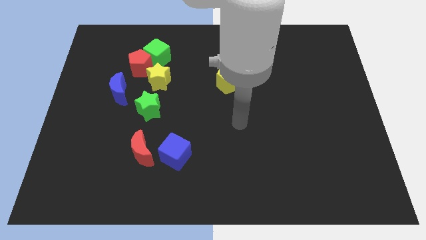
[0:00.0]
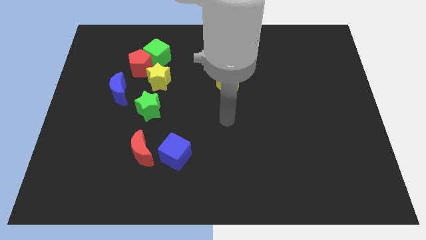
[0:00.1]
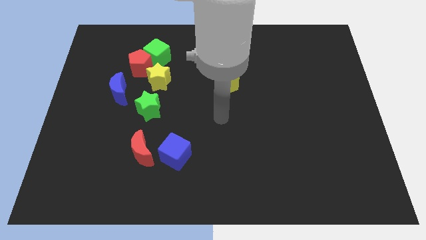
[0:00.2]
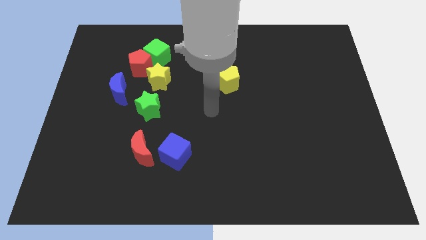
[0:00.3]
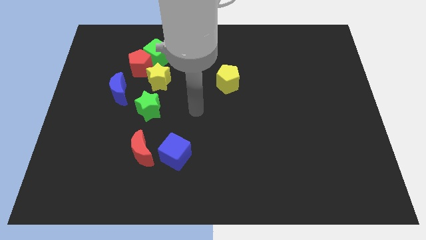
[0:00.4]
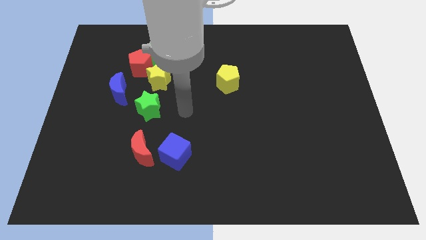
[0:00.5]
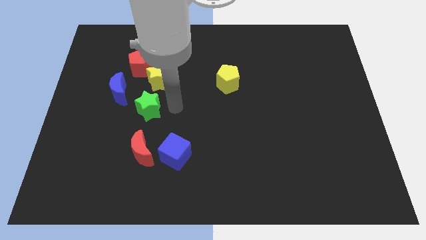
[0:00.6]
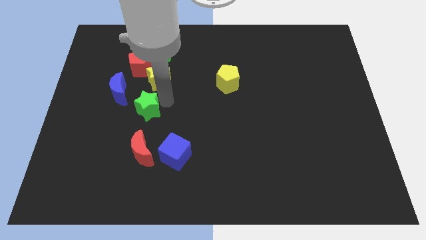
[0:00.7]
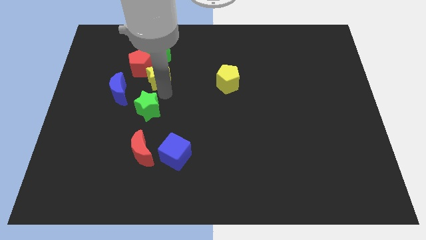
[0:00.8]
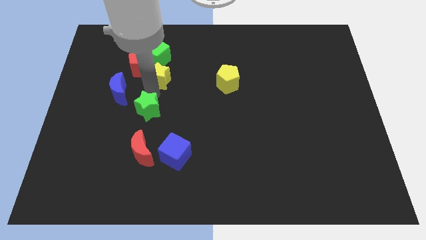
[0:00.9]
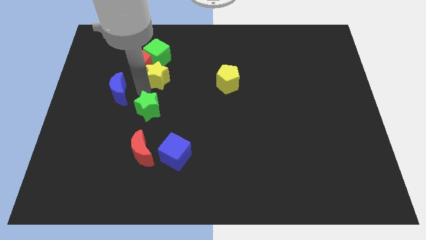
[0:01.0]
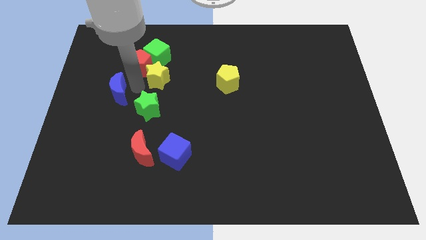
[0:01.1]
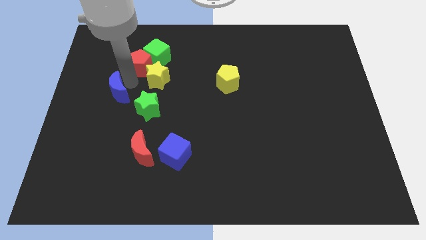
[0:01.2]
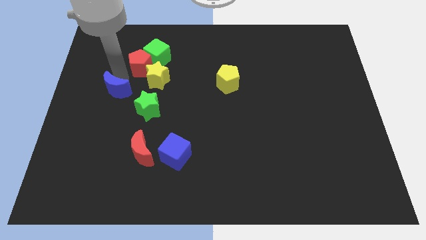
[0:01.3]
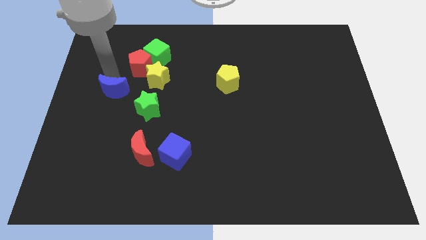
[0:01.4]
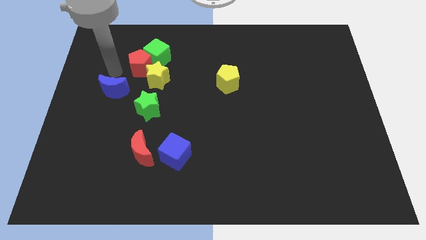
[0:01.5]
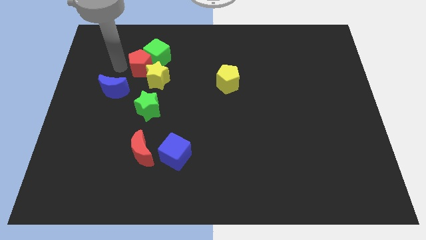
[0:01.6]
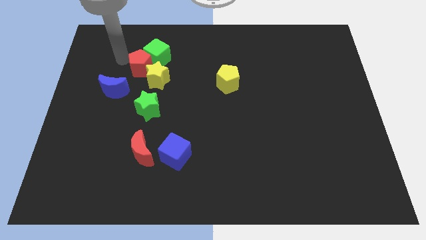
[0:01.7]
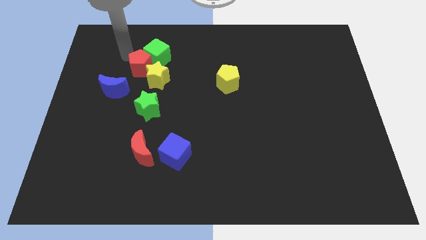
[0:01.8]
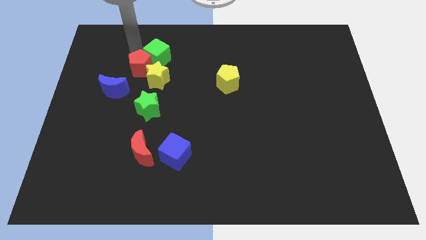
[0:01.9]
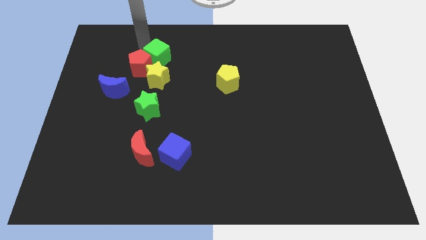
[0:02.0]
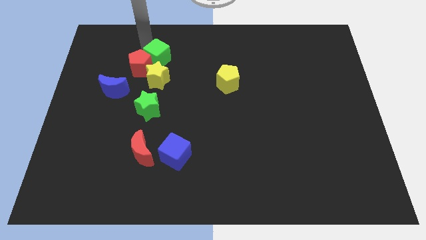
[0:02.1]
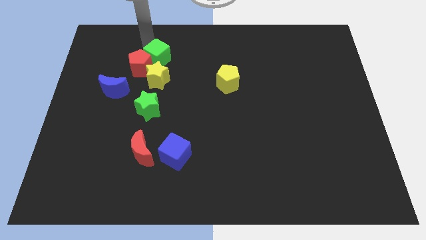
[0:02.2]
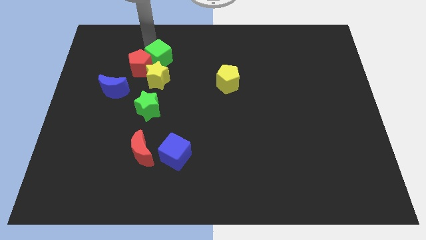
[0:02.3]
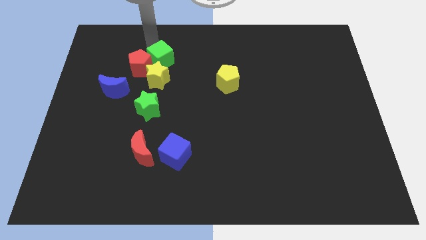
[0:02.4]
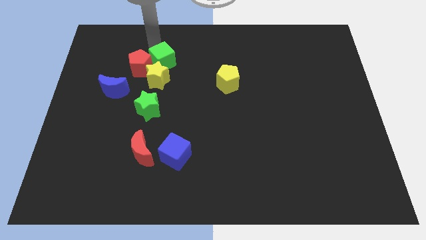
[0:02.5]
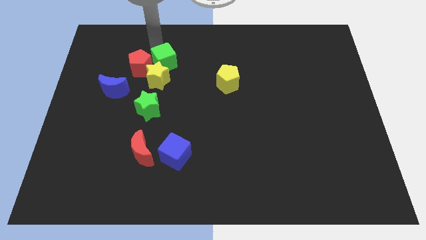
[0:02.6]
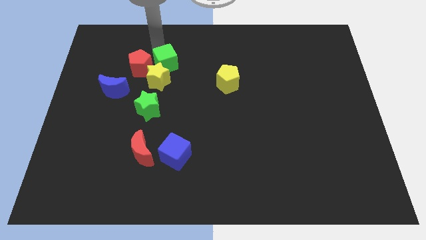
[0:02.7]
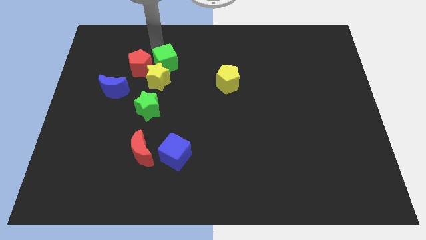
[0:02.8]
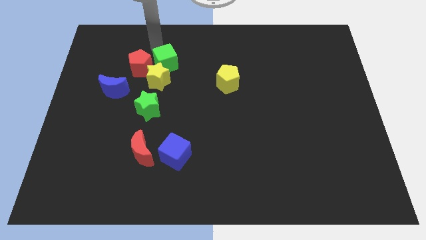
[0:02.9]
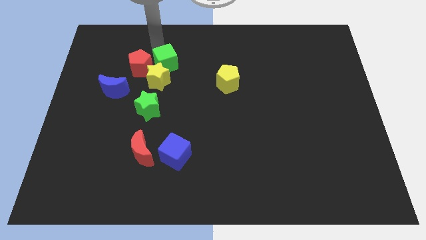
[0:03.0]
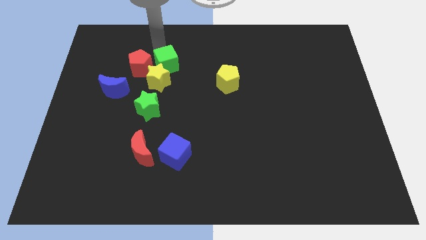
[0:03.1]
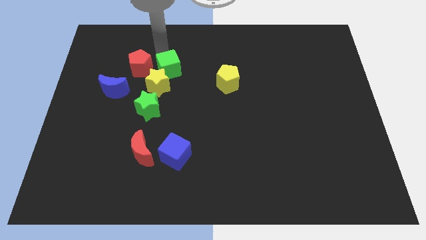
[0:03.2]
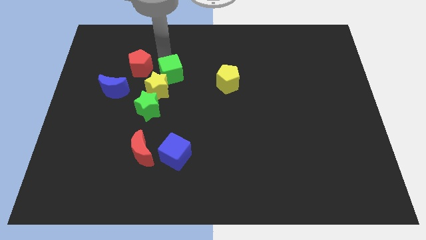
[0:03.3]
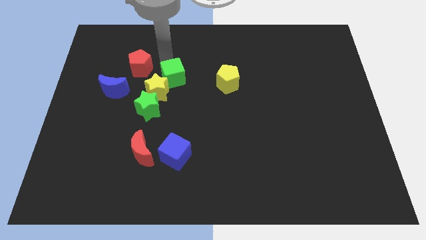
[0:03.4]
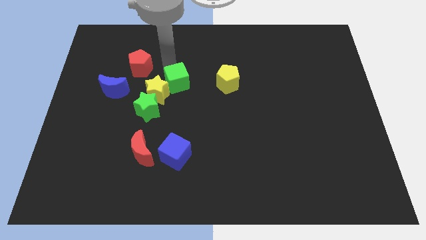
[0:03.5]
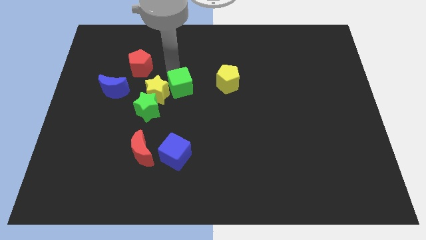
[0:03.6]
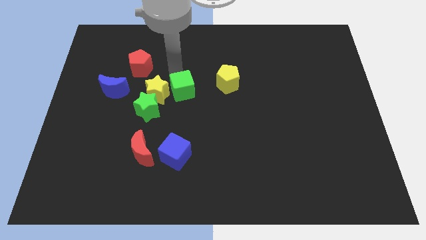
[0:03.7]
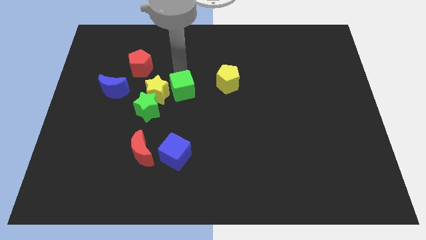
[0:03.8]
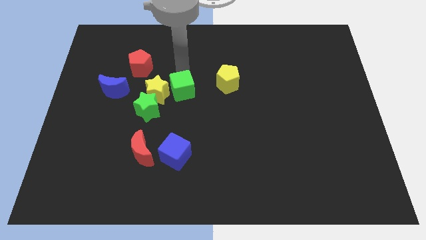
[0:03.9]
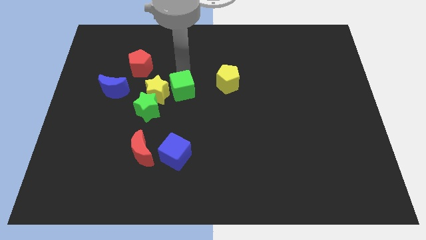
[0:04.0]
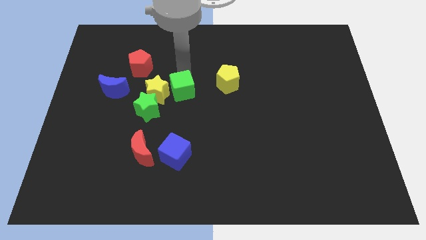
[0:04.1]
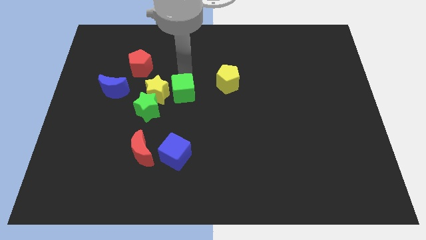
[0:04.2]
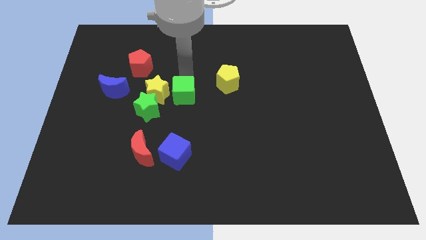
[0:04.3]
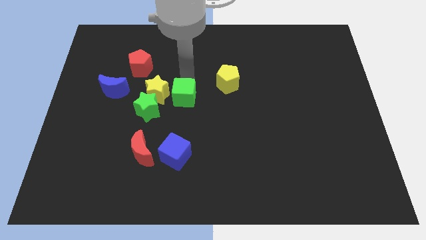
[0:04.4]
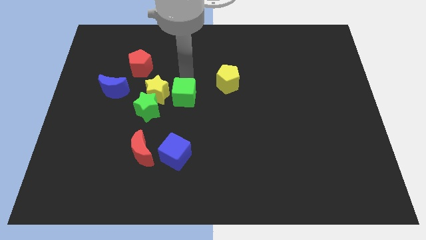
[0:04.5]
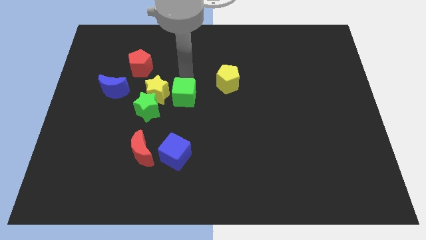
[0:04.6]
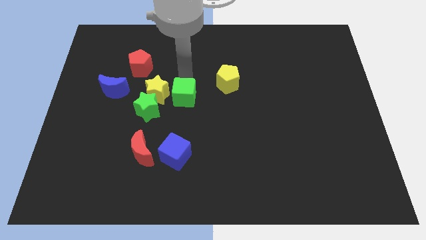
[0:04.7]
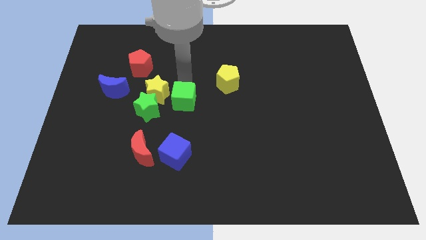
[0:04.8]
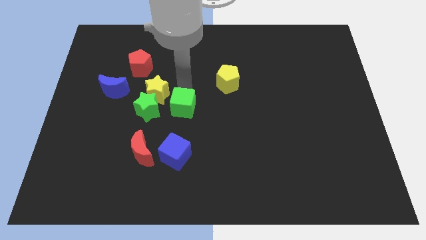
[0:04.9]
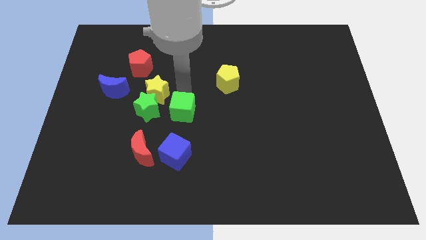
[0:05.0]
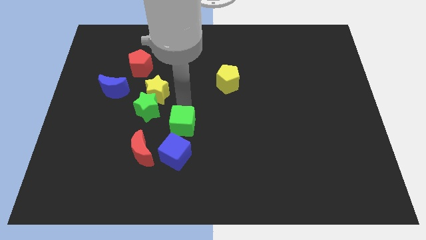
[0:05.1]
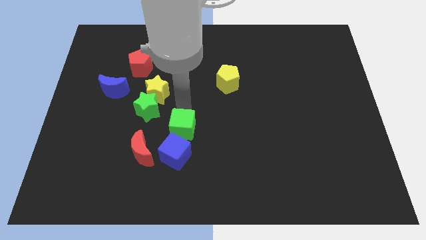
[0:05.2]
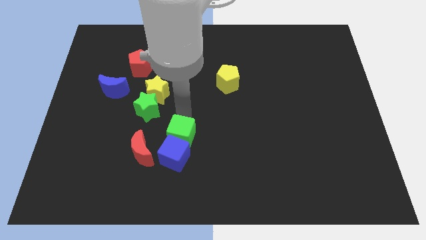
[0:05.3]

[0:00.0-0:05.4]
push the green cube next to the blue cube

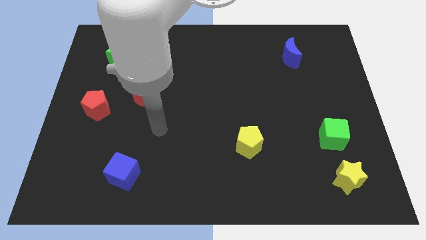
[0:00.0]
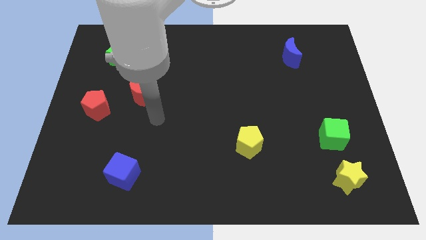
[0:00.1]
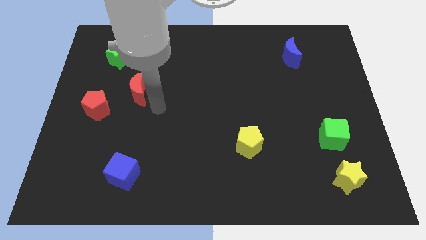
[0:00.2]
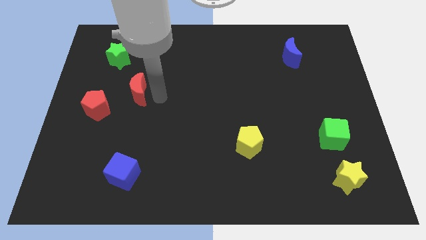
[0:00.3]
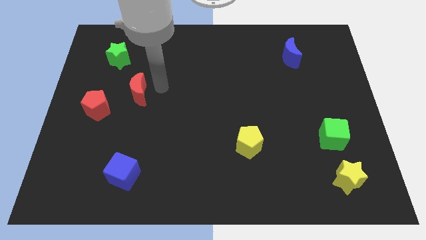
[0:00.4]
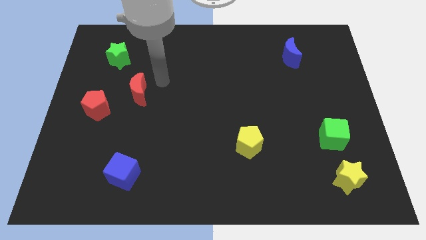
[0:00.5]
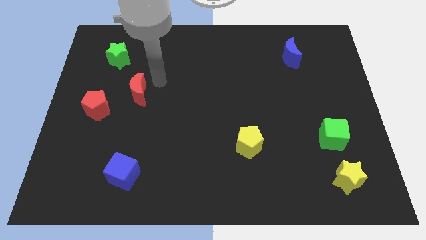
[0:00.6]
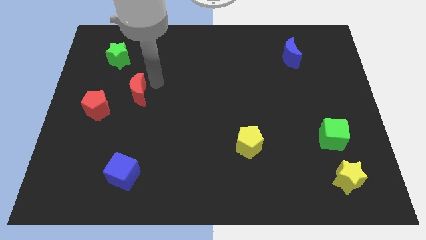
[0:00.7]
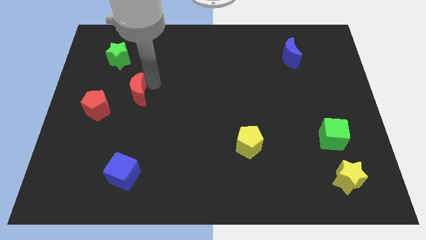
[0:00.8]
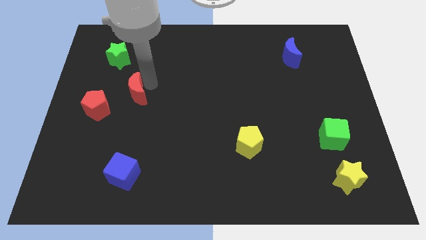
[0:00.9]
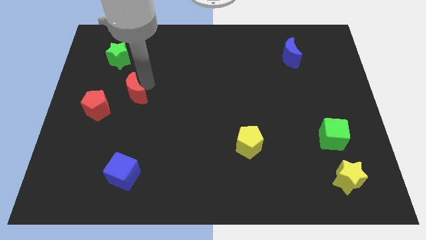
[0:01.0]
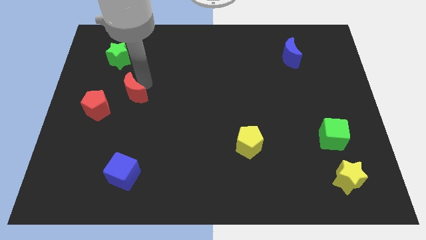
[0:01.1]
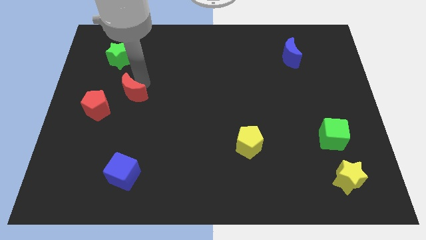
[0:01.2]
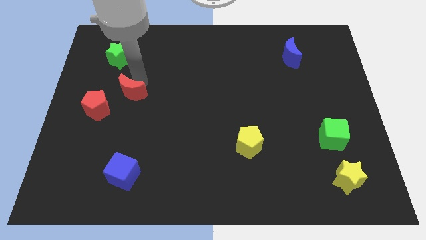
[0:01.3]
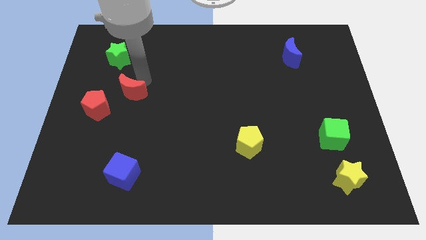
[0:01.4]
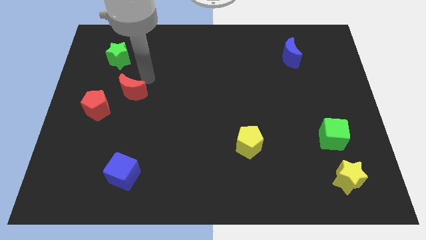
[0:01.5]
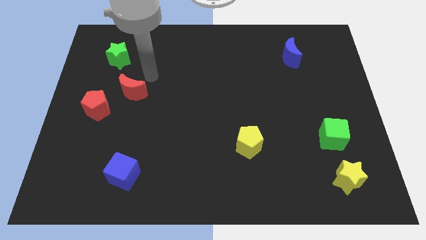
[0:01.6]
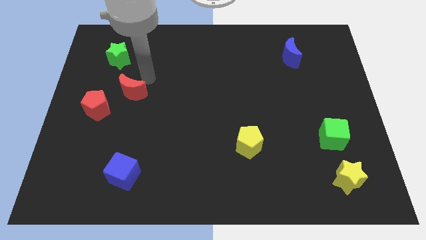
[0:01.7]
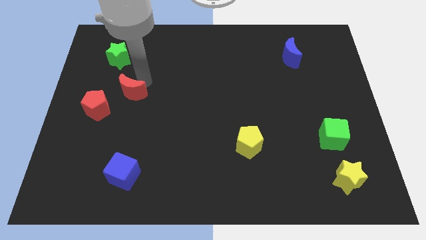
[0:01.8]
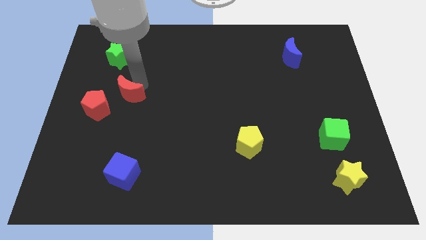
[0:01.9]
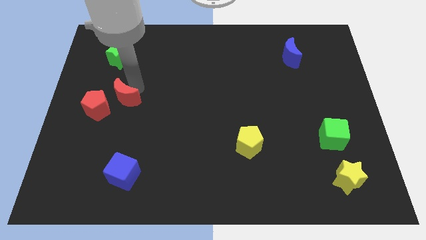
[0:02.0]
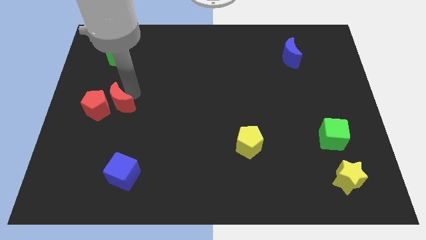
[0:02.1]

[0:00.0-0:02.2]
slide the red moon to the red pentagon
